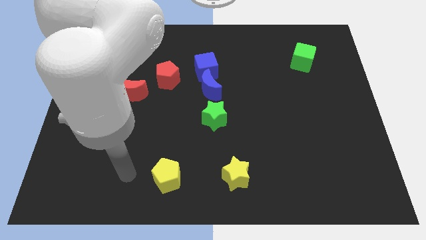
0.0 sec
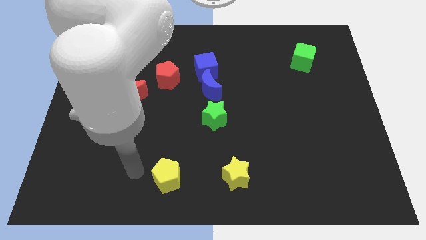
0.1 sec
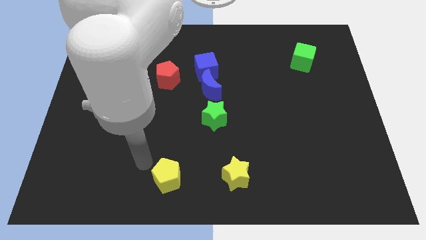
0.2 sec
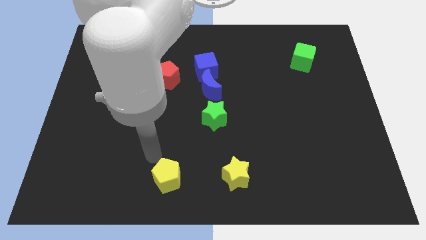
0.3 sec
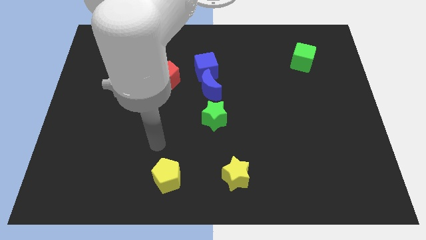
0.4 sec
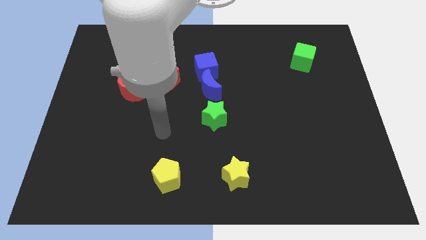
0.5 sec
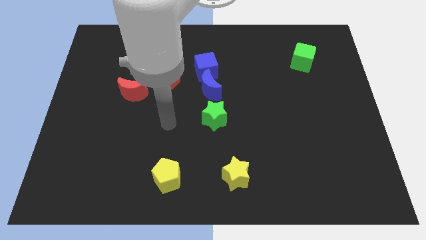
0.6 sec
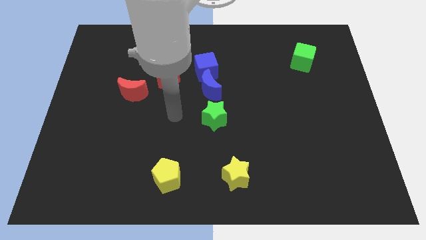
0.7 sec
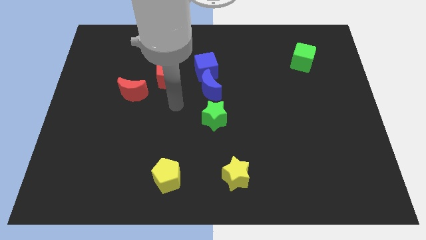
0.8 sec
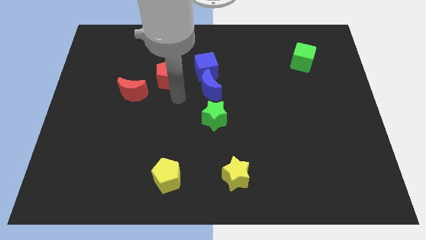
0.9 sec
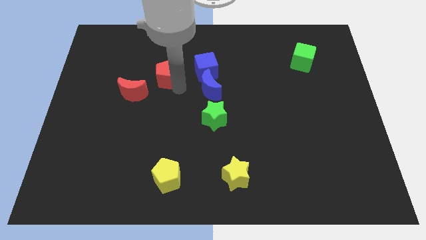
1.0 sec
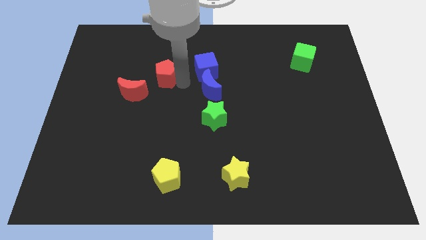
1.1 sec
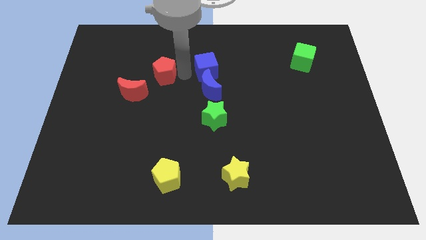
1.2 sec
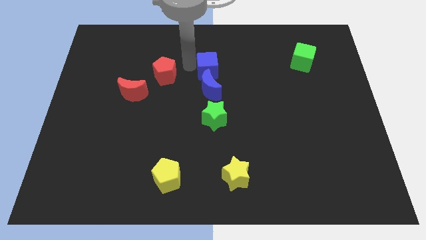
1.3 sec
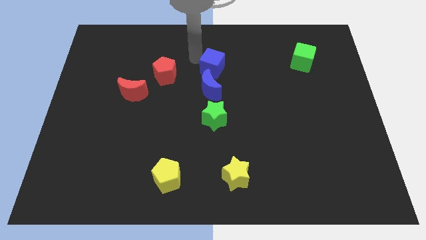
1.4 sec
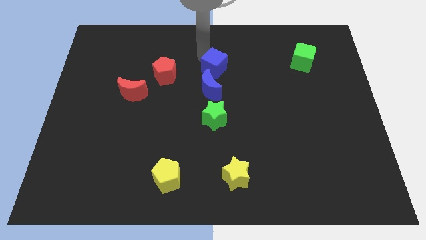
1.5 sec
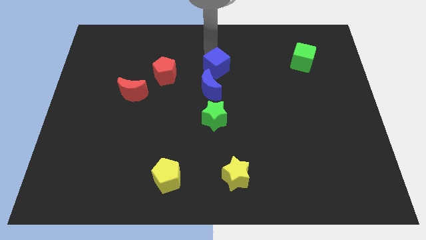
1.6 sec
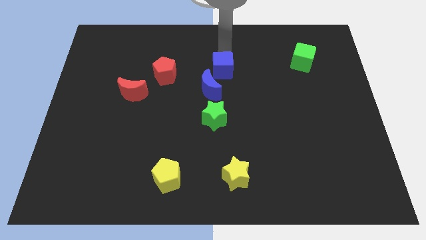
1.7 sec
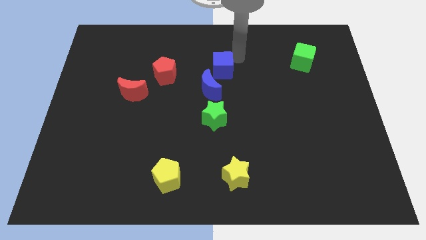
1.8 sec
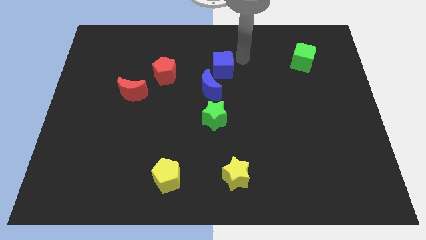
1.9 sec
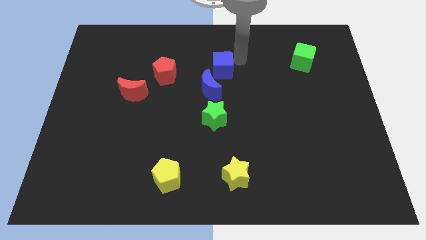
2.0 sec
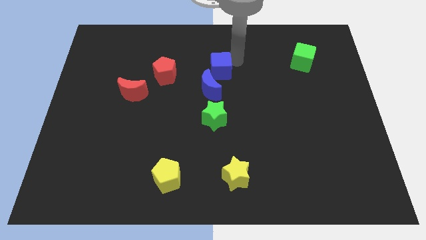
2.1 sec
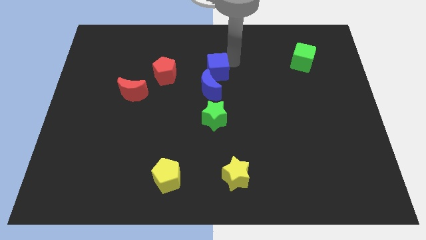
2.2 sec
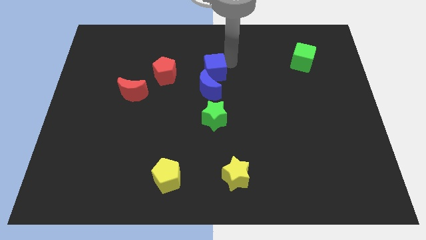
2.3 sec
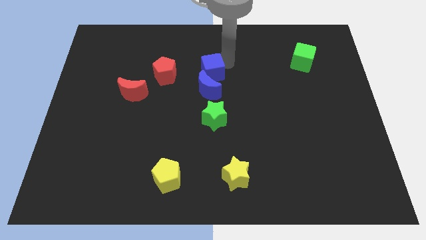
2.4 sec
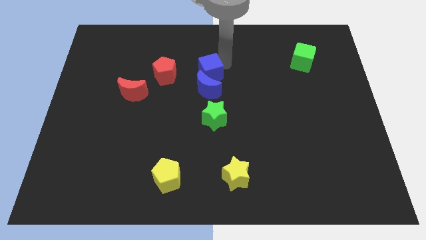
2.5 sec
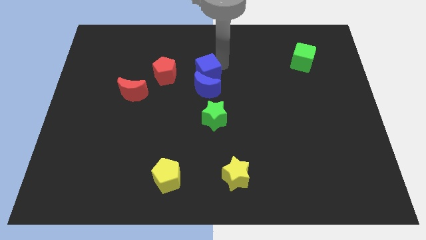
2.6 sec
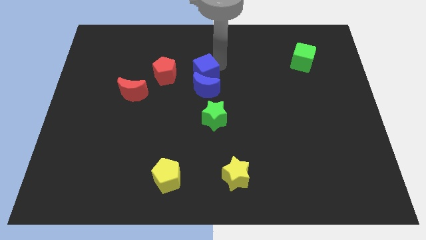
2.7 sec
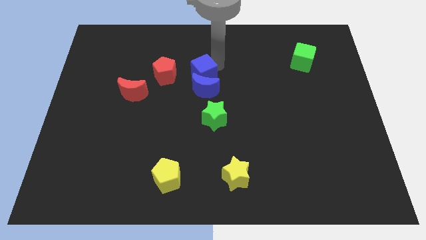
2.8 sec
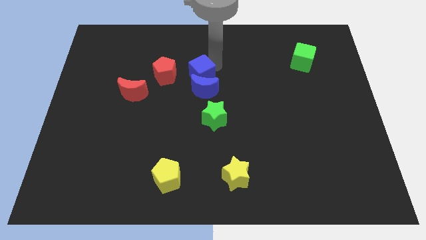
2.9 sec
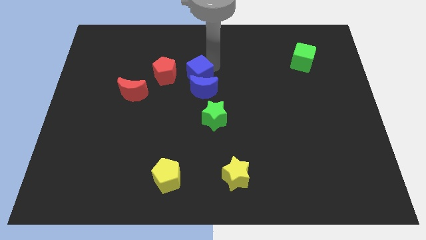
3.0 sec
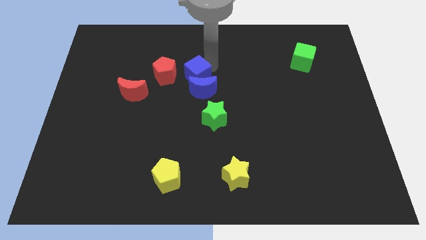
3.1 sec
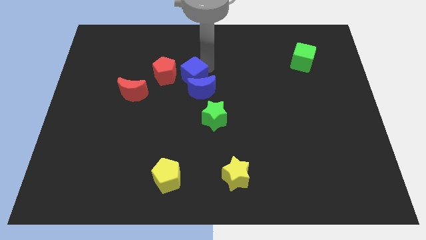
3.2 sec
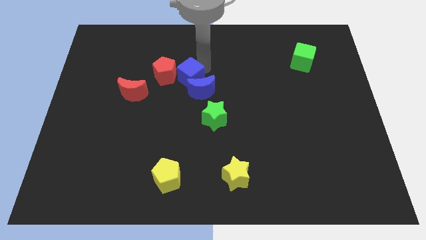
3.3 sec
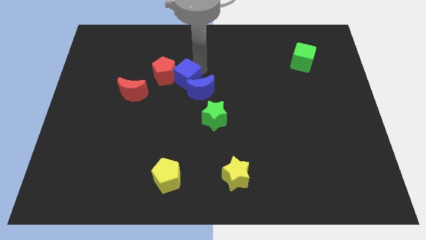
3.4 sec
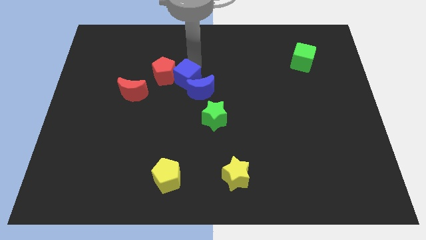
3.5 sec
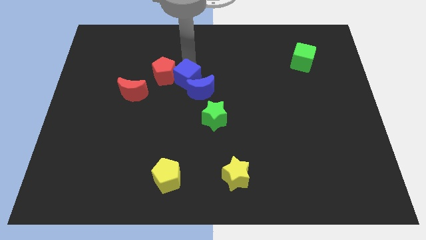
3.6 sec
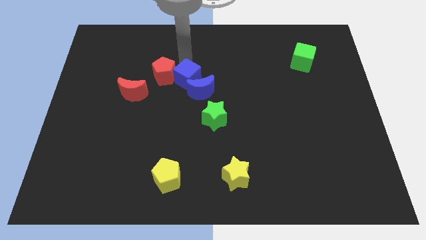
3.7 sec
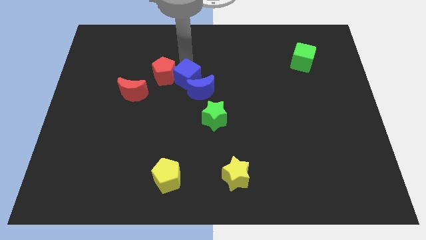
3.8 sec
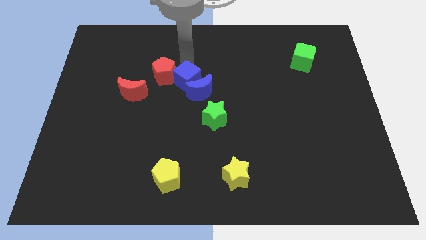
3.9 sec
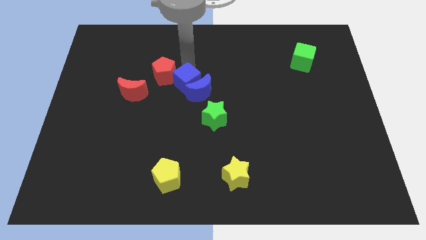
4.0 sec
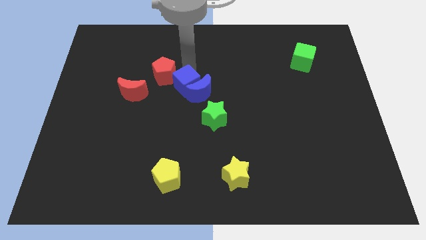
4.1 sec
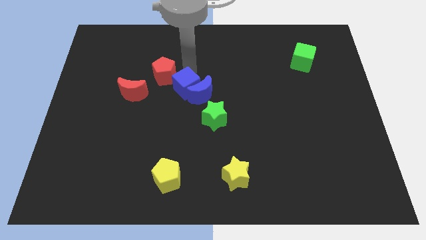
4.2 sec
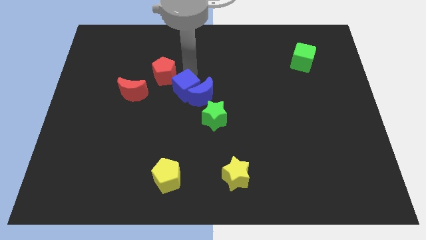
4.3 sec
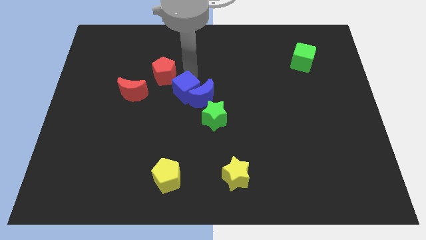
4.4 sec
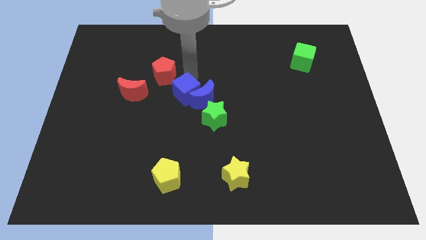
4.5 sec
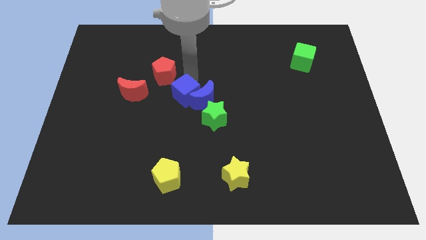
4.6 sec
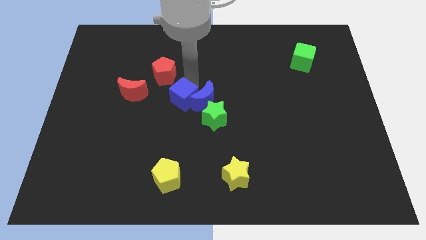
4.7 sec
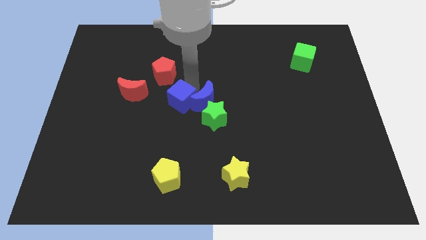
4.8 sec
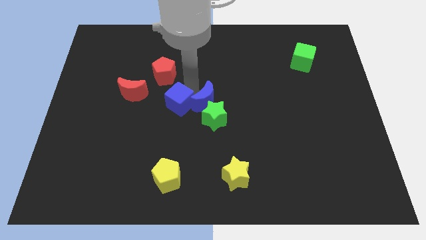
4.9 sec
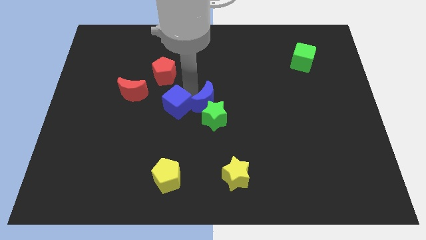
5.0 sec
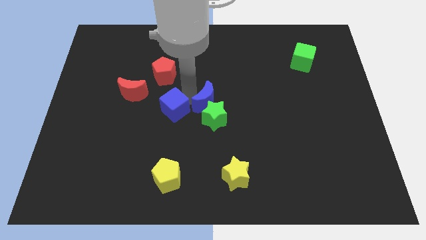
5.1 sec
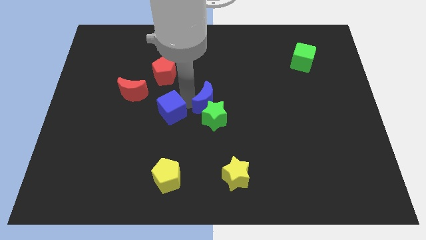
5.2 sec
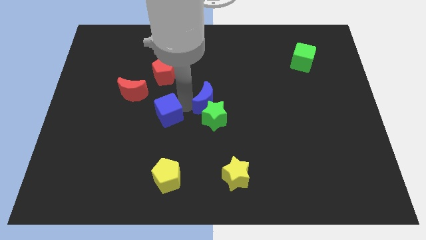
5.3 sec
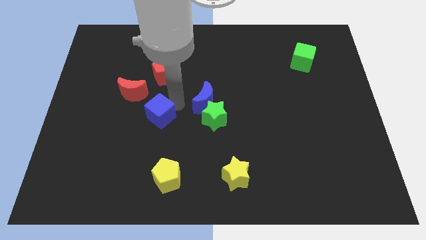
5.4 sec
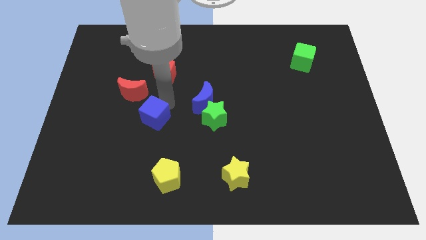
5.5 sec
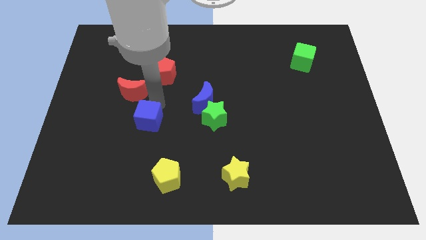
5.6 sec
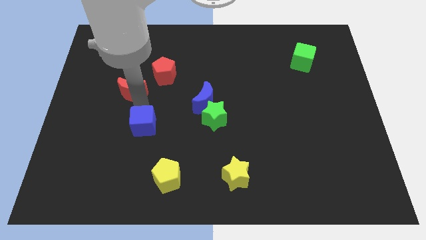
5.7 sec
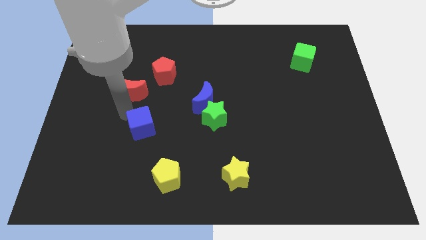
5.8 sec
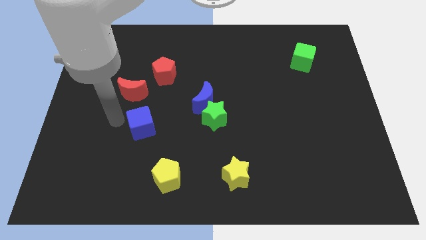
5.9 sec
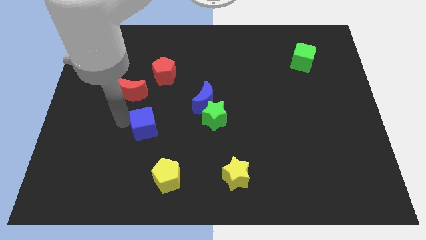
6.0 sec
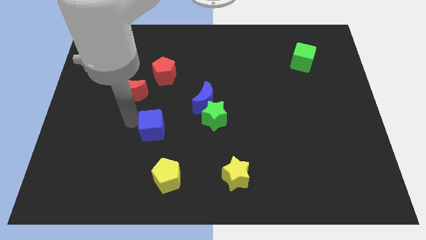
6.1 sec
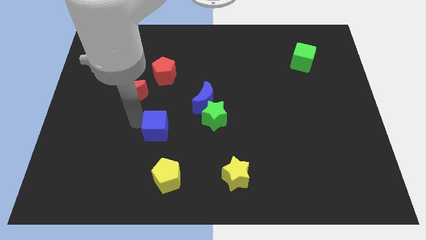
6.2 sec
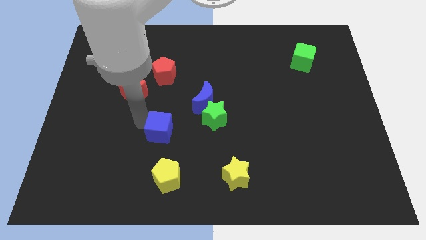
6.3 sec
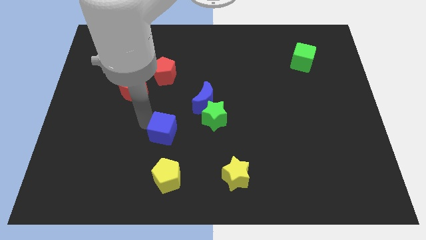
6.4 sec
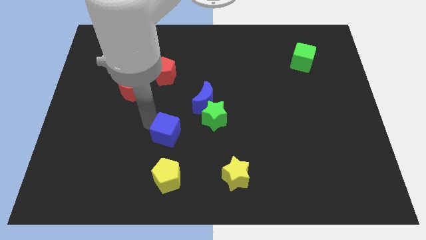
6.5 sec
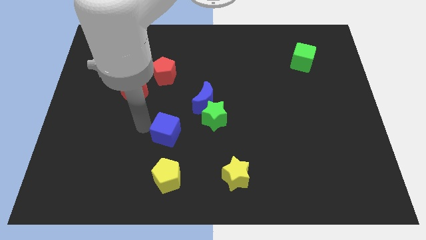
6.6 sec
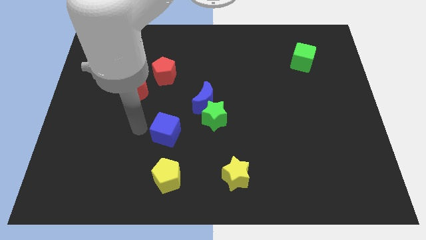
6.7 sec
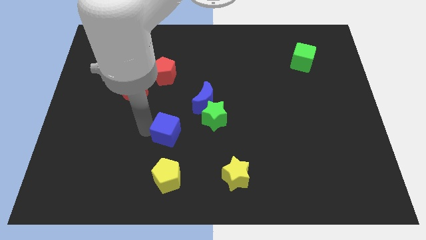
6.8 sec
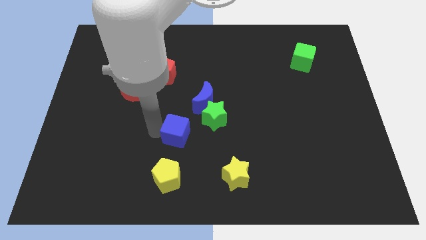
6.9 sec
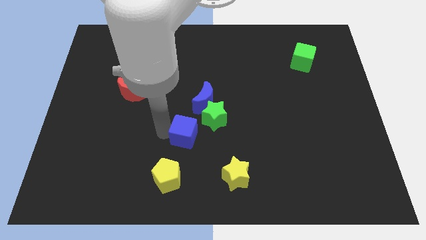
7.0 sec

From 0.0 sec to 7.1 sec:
put the blue cube to the bottom of the blue moon

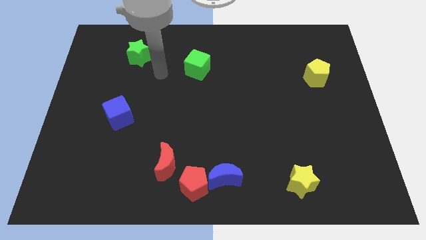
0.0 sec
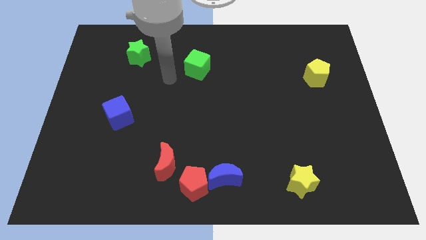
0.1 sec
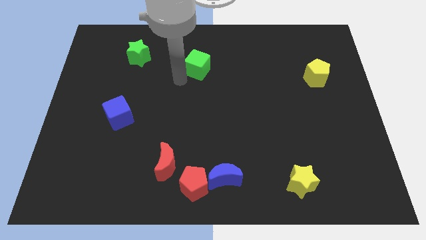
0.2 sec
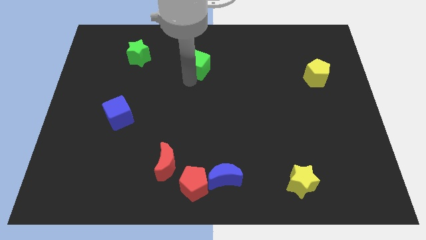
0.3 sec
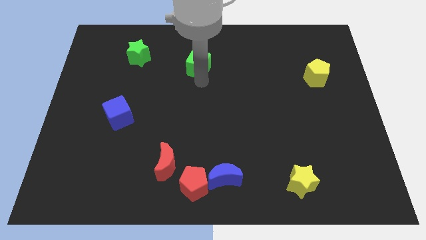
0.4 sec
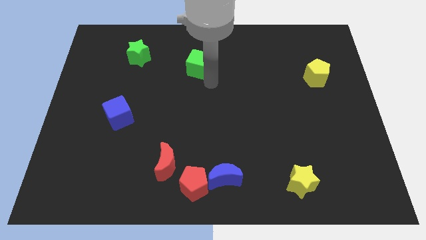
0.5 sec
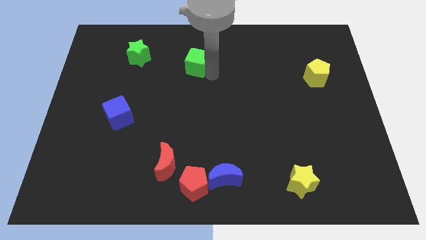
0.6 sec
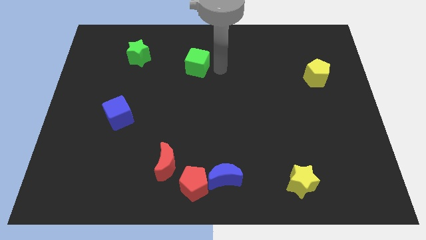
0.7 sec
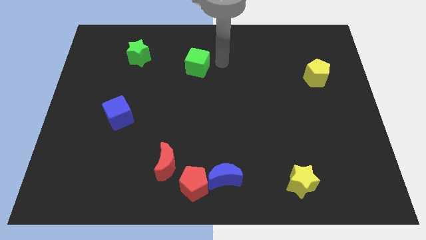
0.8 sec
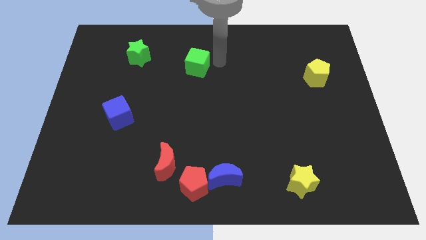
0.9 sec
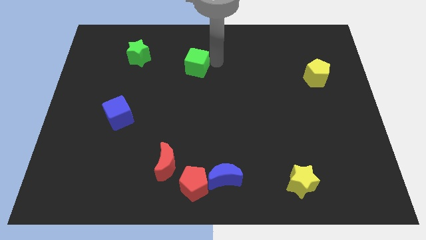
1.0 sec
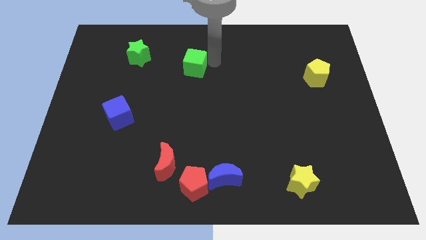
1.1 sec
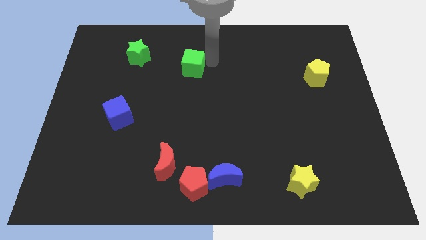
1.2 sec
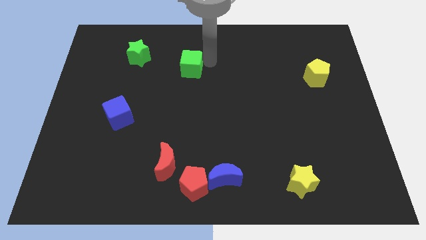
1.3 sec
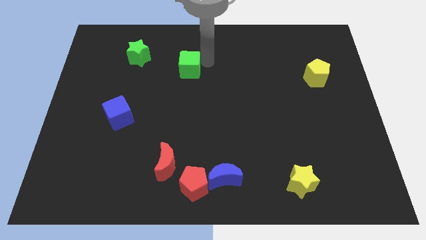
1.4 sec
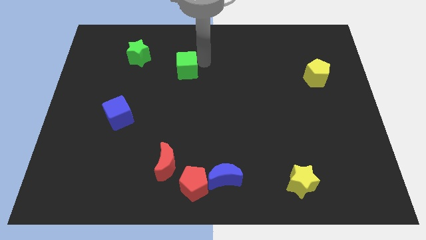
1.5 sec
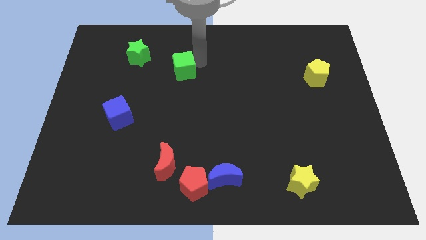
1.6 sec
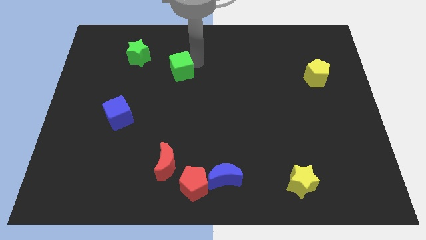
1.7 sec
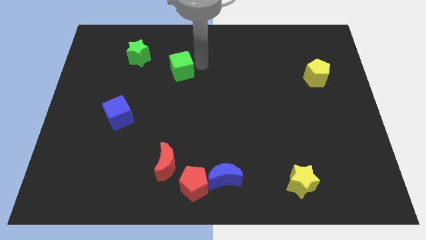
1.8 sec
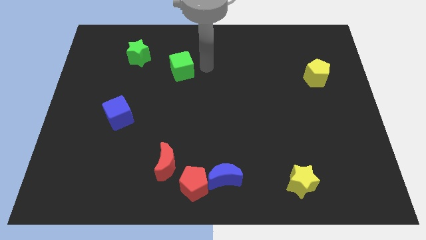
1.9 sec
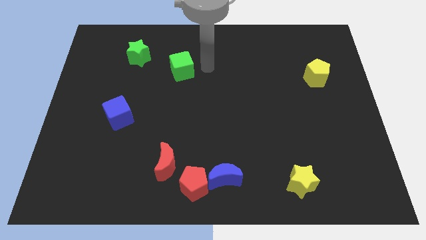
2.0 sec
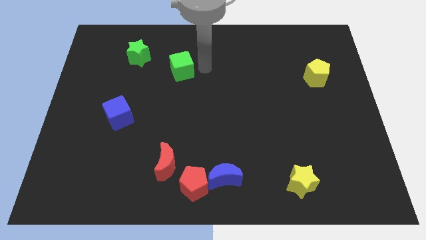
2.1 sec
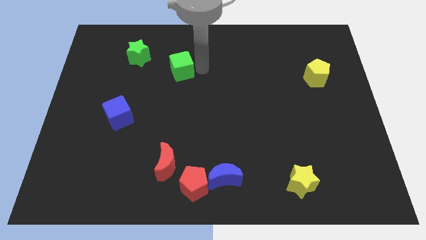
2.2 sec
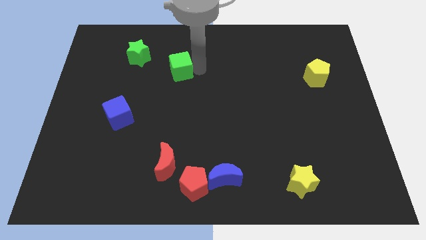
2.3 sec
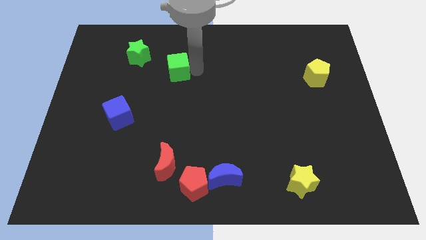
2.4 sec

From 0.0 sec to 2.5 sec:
push the green cube to the bottom right of the green star
